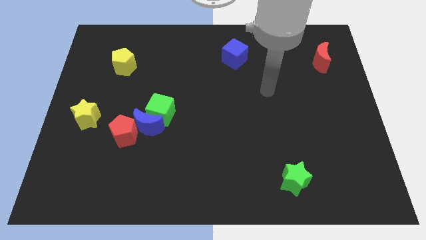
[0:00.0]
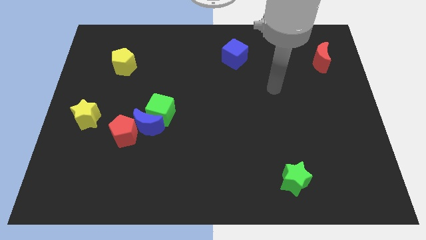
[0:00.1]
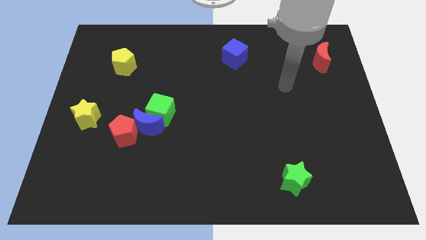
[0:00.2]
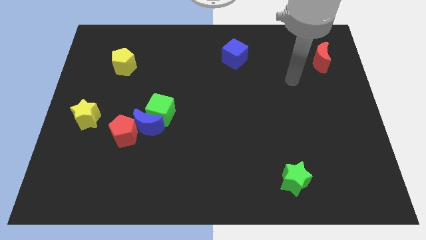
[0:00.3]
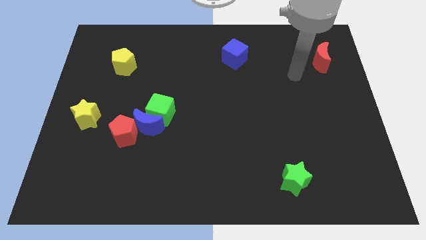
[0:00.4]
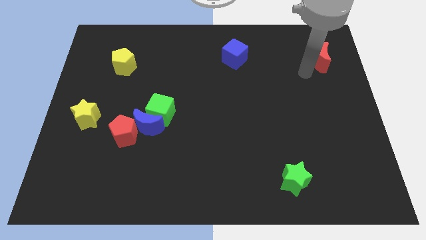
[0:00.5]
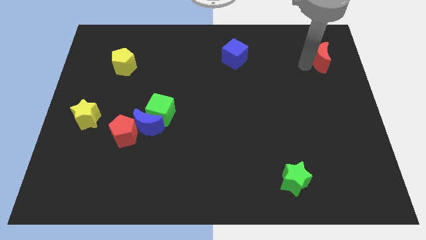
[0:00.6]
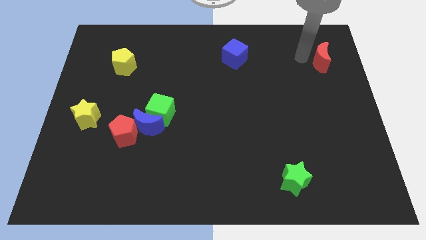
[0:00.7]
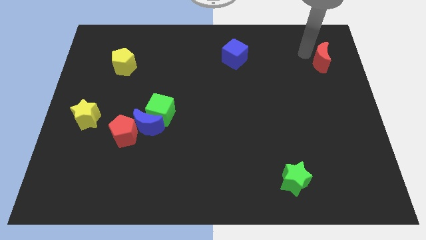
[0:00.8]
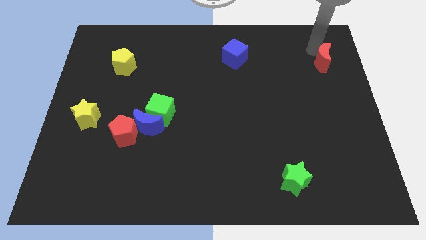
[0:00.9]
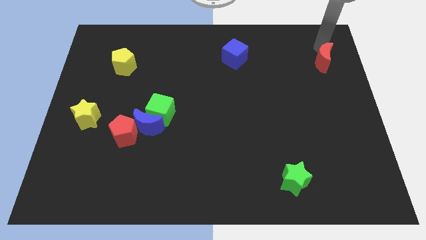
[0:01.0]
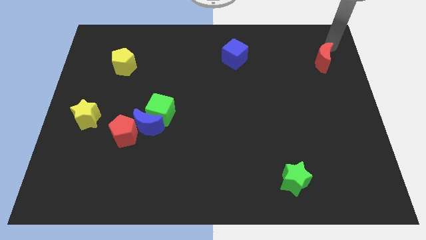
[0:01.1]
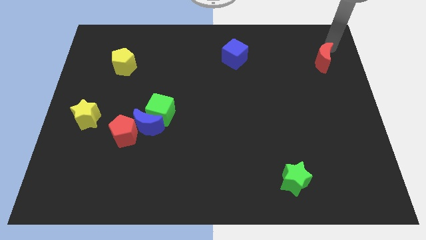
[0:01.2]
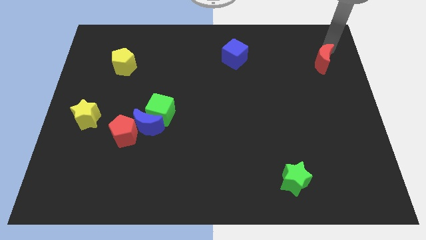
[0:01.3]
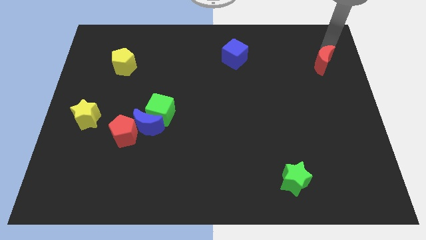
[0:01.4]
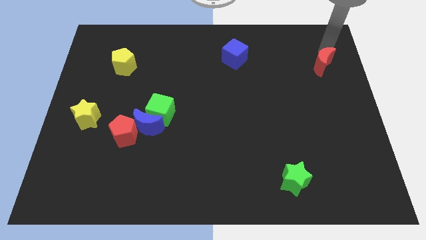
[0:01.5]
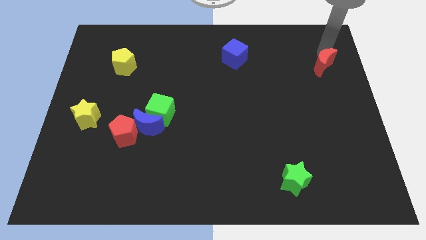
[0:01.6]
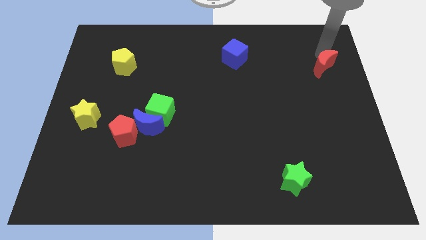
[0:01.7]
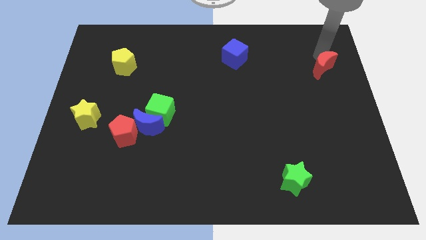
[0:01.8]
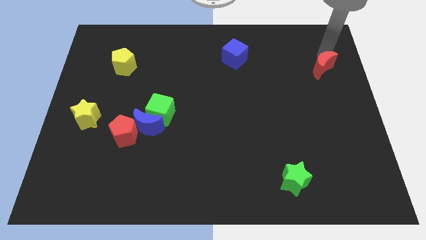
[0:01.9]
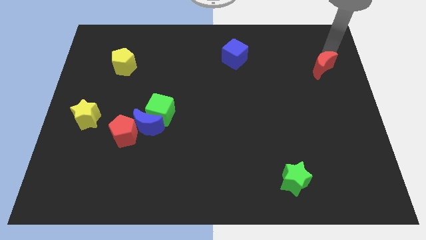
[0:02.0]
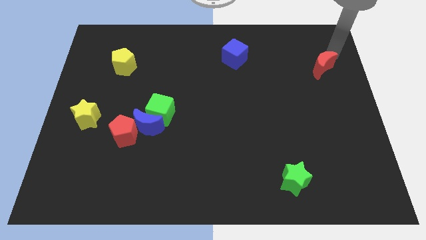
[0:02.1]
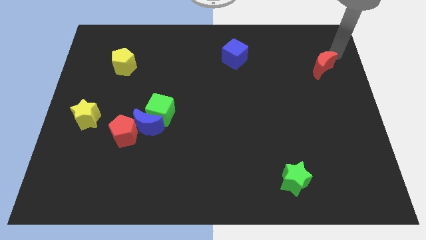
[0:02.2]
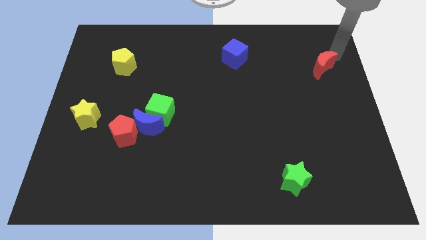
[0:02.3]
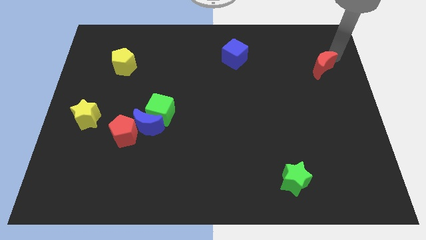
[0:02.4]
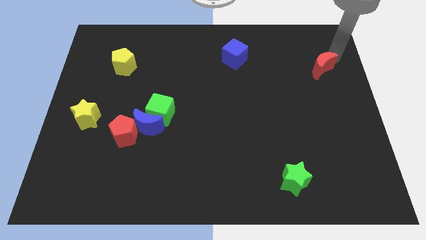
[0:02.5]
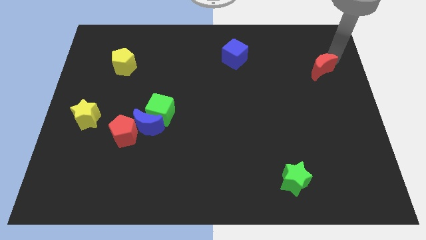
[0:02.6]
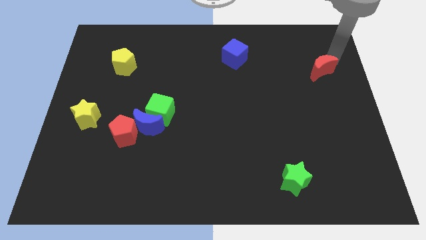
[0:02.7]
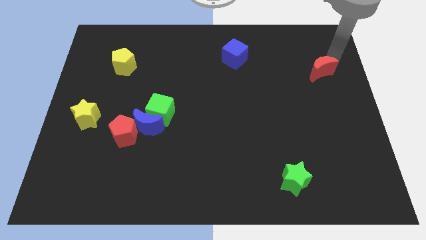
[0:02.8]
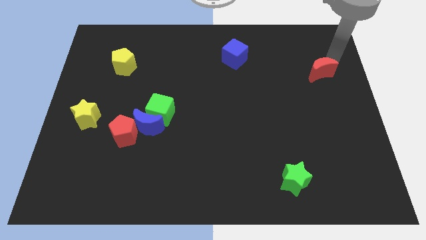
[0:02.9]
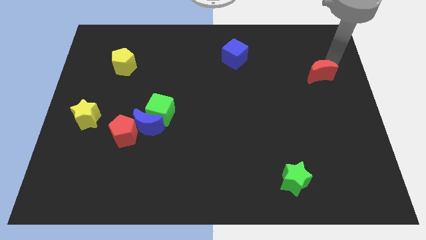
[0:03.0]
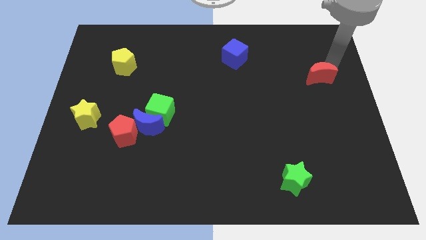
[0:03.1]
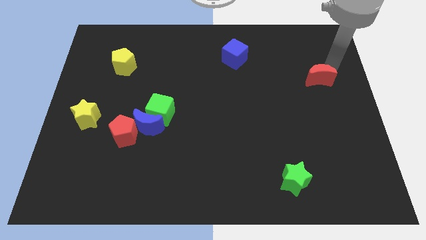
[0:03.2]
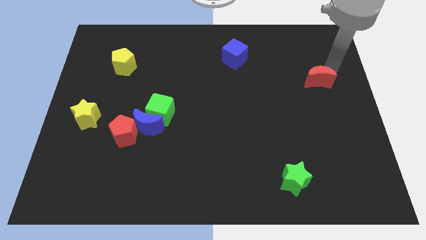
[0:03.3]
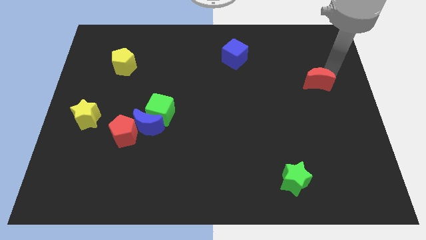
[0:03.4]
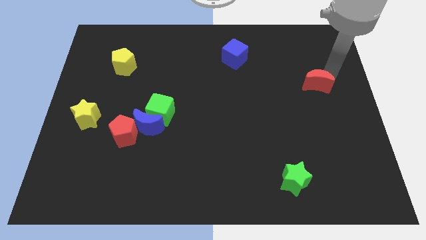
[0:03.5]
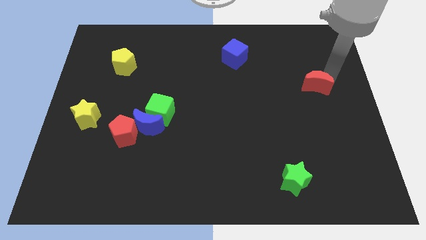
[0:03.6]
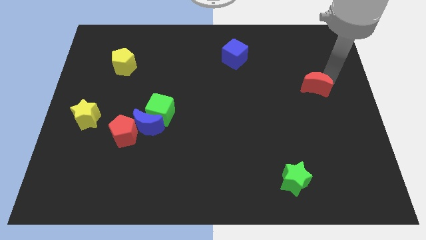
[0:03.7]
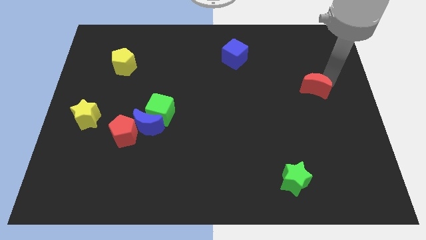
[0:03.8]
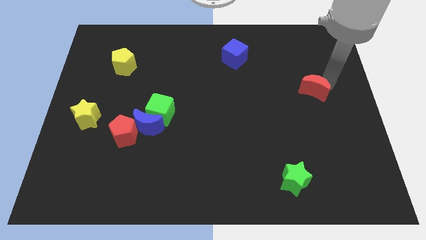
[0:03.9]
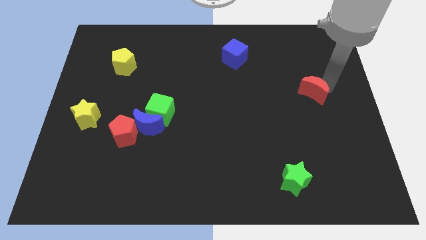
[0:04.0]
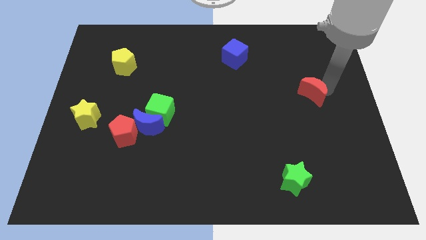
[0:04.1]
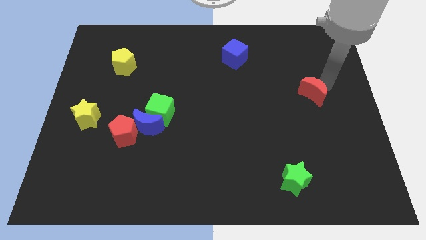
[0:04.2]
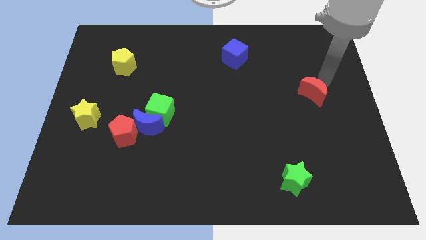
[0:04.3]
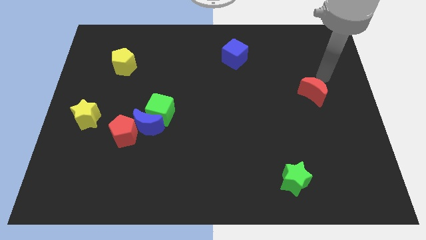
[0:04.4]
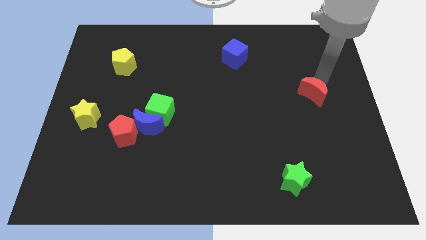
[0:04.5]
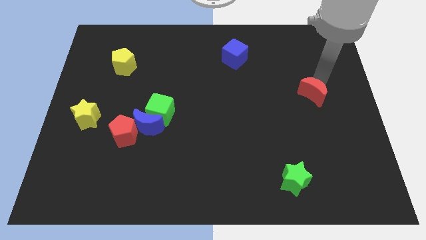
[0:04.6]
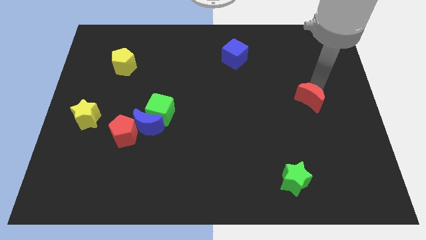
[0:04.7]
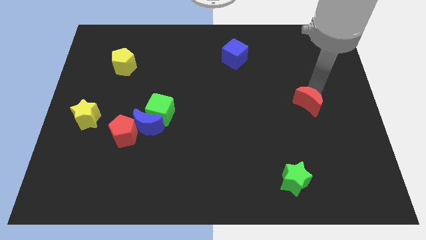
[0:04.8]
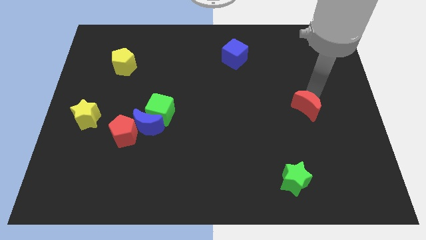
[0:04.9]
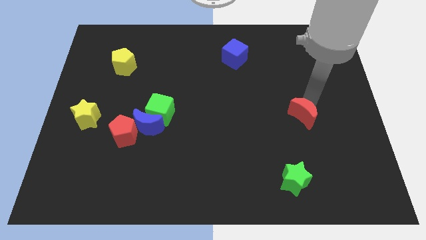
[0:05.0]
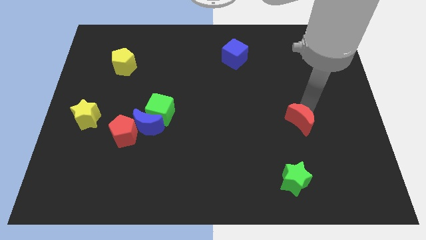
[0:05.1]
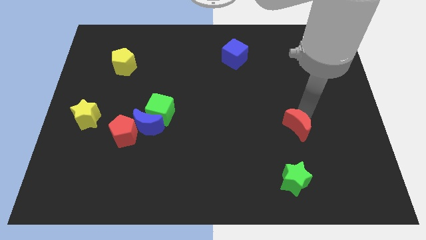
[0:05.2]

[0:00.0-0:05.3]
put the red moon to the top of the green star

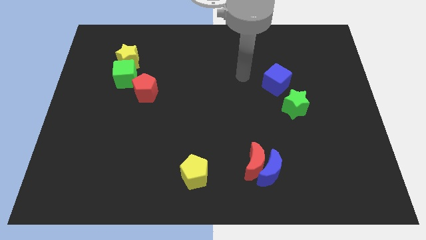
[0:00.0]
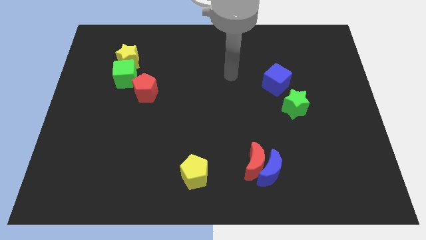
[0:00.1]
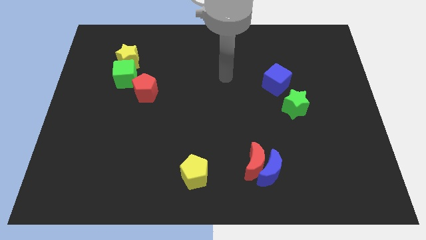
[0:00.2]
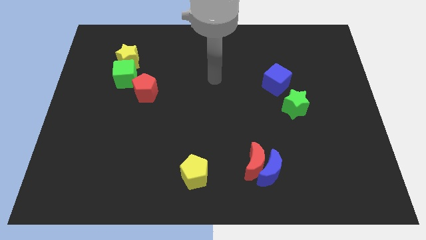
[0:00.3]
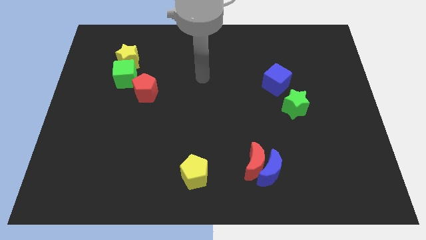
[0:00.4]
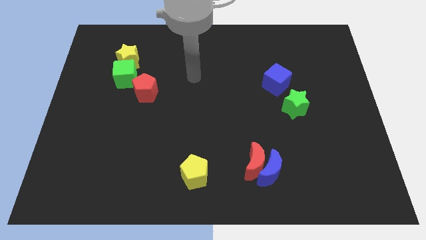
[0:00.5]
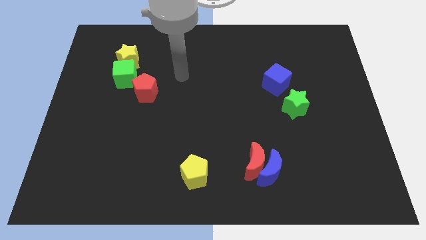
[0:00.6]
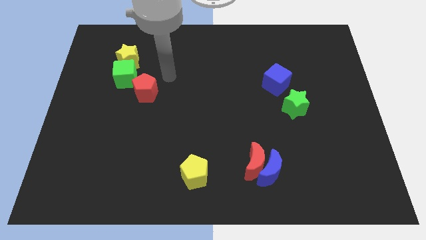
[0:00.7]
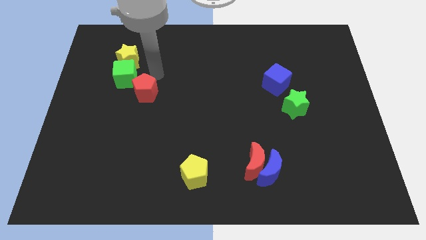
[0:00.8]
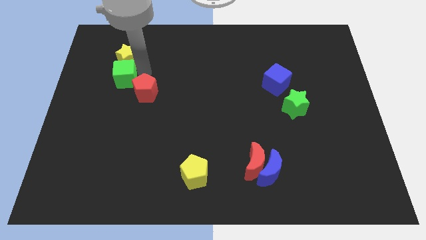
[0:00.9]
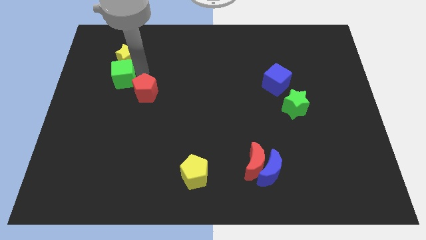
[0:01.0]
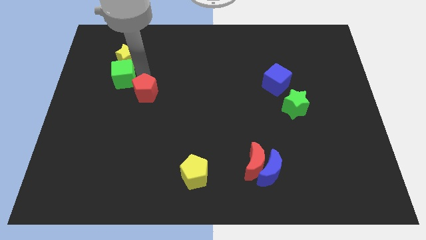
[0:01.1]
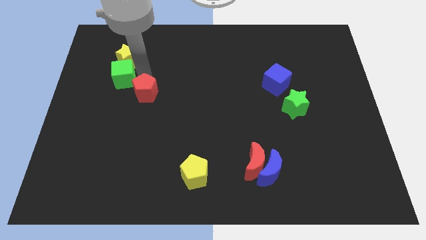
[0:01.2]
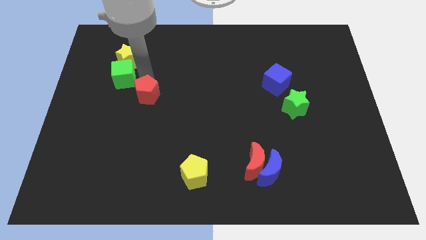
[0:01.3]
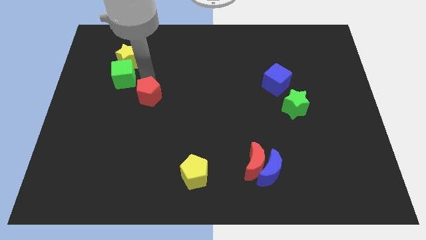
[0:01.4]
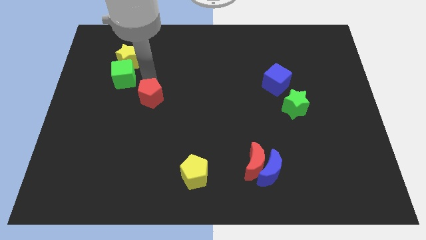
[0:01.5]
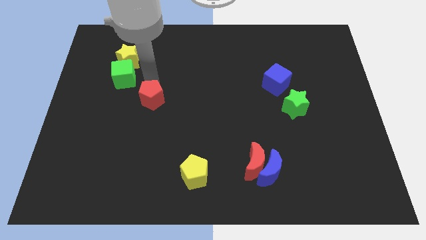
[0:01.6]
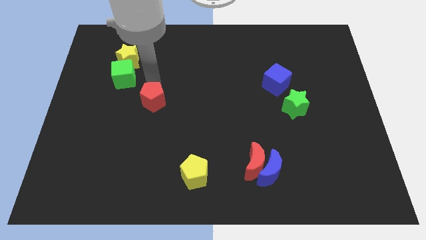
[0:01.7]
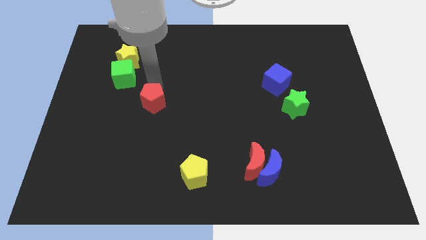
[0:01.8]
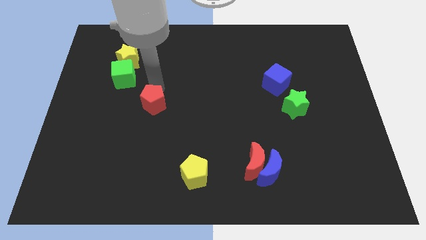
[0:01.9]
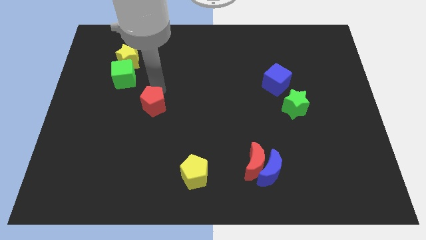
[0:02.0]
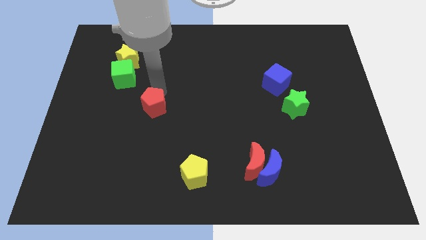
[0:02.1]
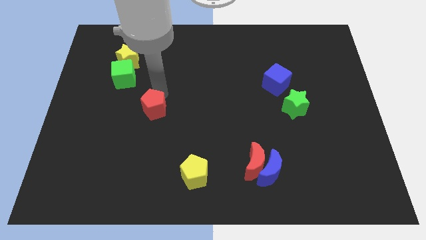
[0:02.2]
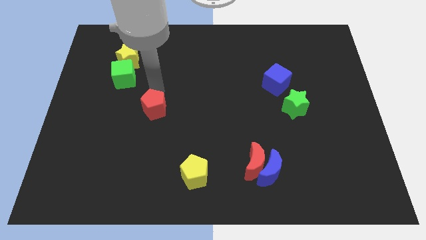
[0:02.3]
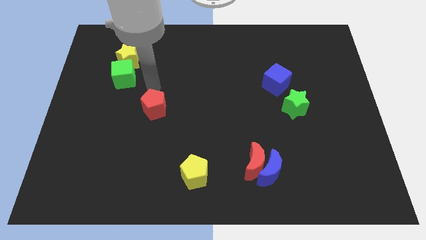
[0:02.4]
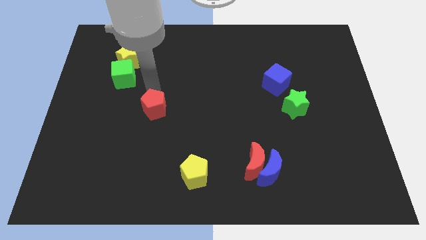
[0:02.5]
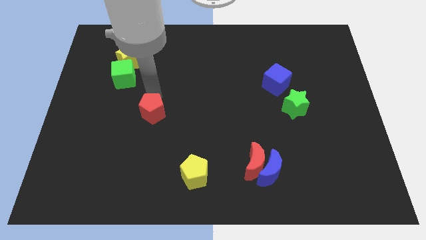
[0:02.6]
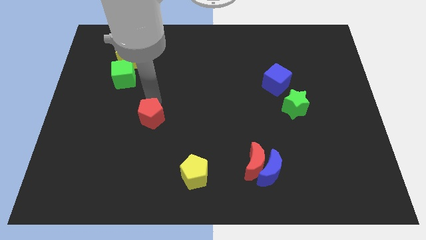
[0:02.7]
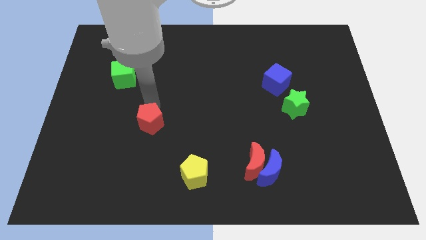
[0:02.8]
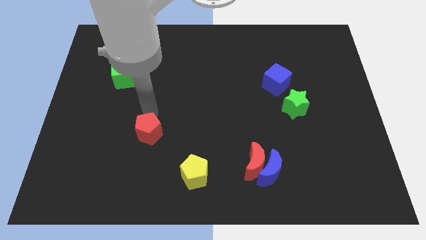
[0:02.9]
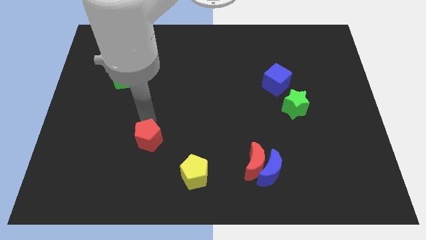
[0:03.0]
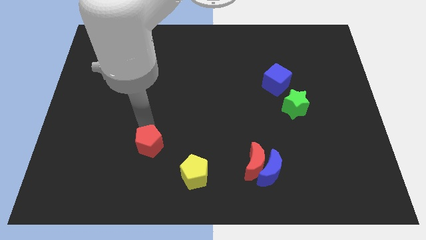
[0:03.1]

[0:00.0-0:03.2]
push the red pentagon to the top left side of the yellow pentagon
